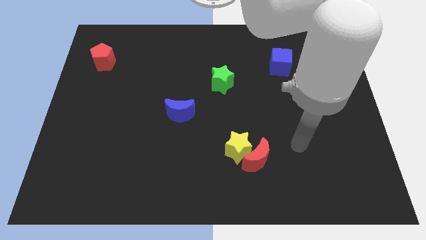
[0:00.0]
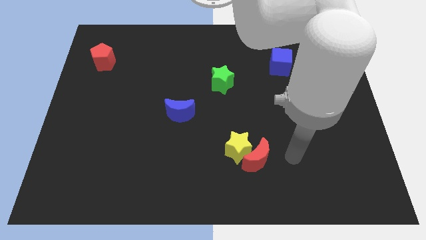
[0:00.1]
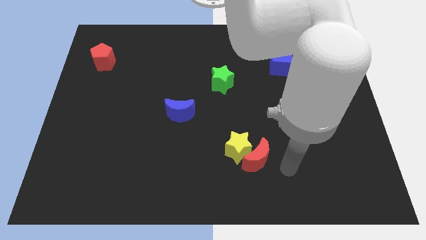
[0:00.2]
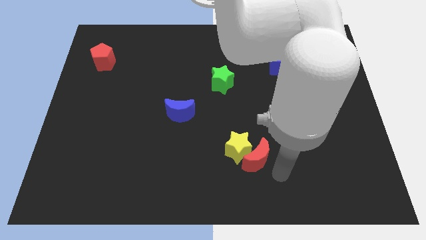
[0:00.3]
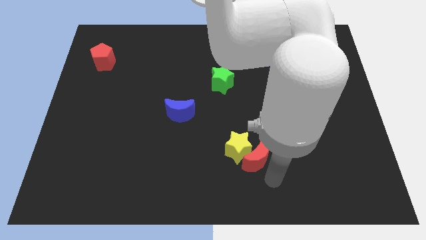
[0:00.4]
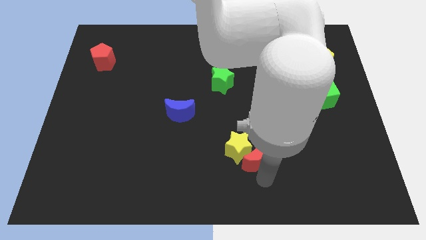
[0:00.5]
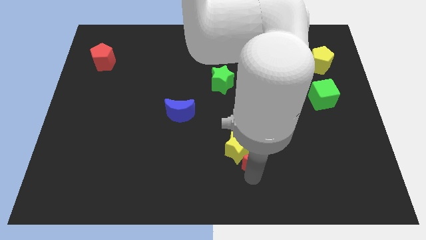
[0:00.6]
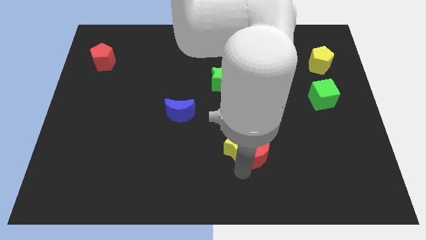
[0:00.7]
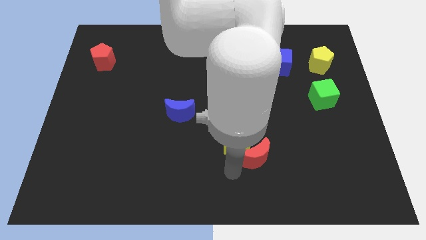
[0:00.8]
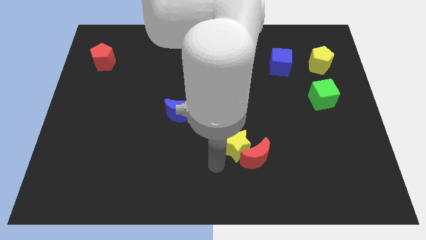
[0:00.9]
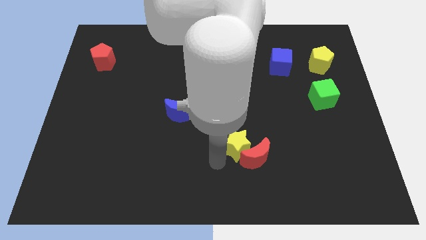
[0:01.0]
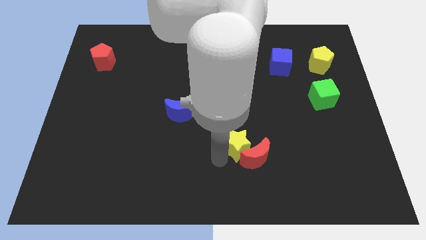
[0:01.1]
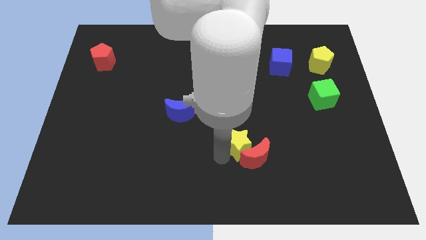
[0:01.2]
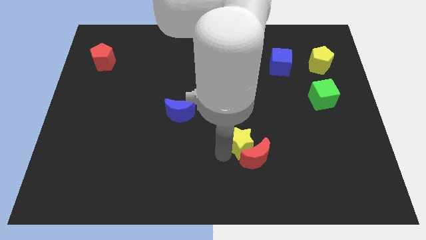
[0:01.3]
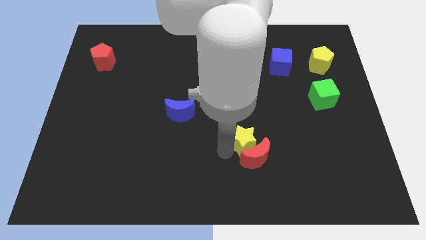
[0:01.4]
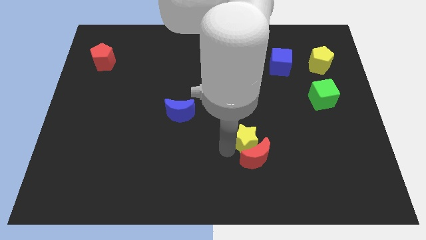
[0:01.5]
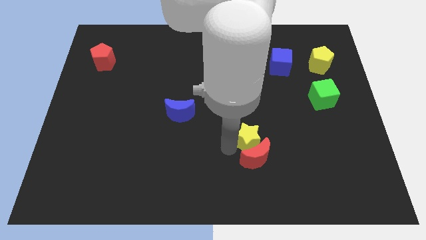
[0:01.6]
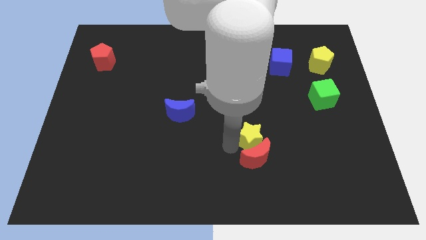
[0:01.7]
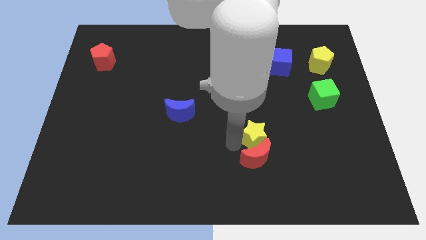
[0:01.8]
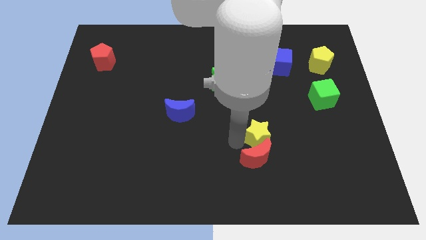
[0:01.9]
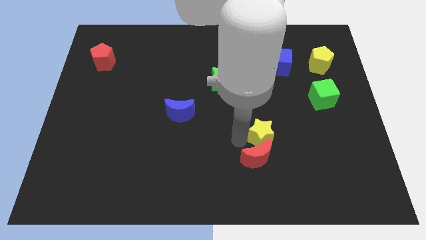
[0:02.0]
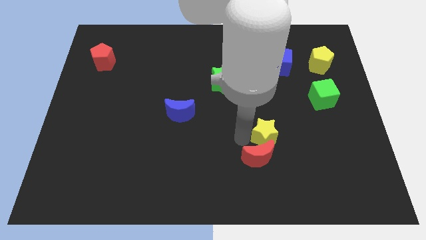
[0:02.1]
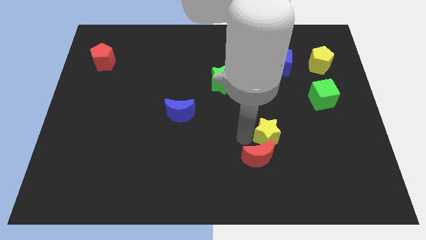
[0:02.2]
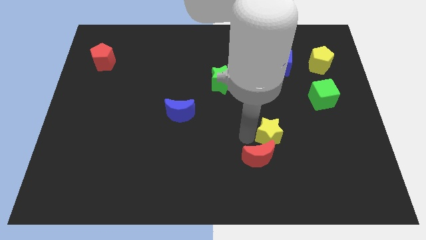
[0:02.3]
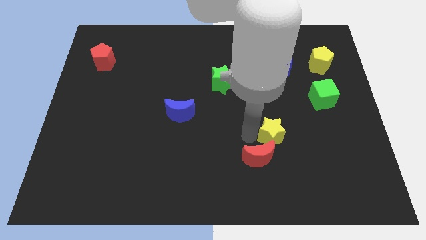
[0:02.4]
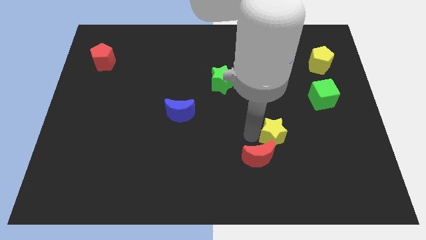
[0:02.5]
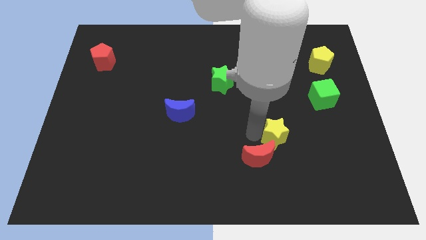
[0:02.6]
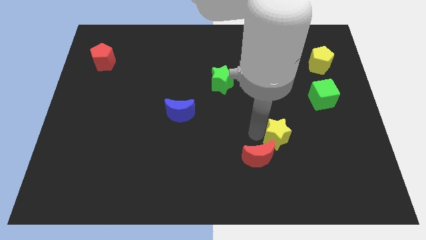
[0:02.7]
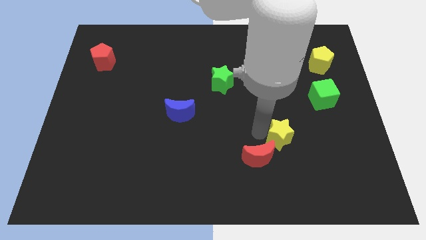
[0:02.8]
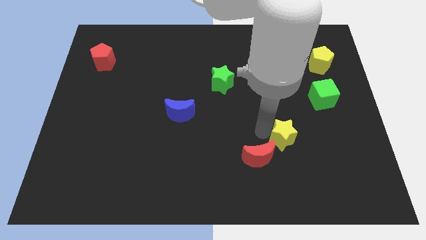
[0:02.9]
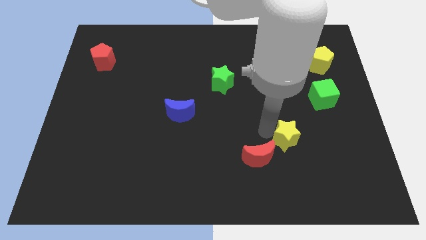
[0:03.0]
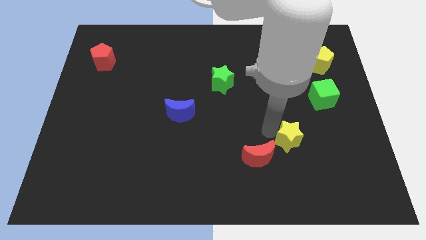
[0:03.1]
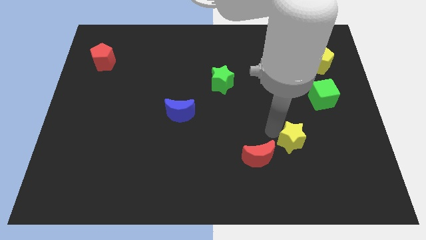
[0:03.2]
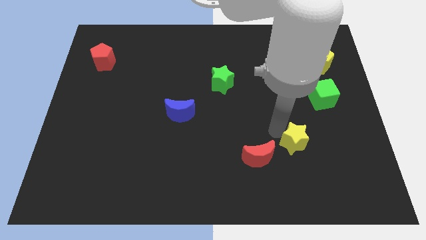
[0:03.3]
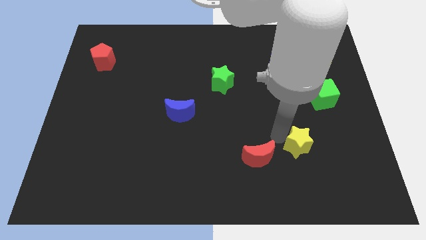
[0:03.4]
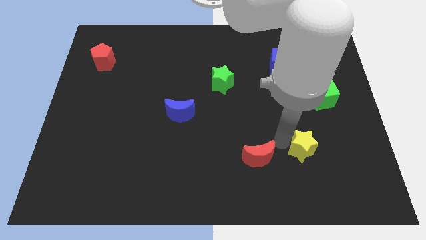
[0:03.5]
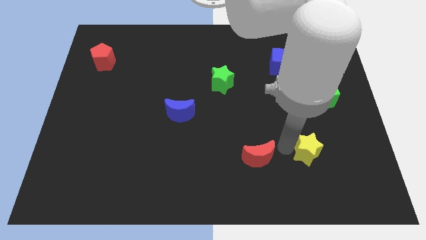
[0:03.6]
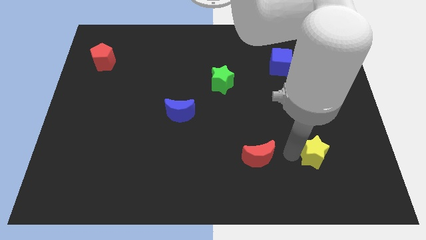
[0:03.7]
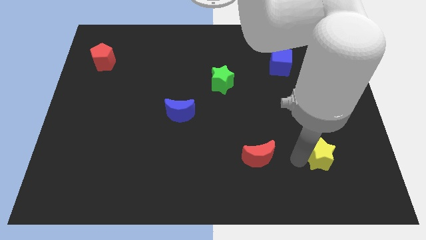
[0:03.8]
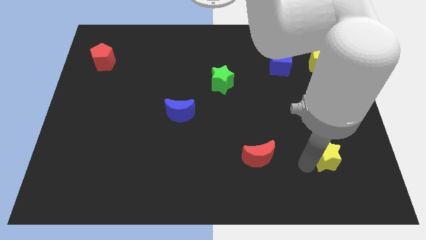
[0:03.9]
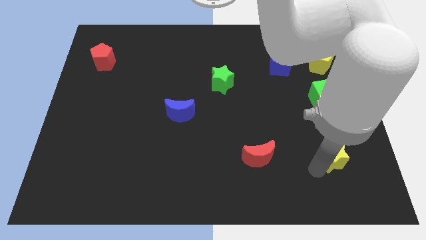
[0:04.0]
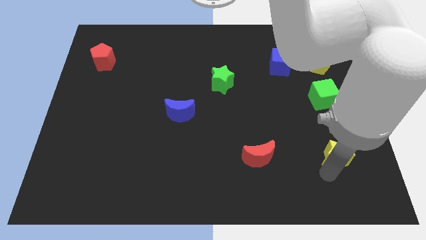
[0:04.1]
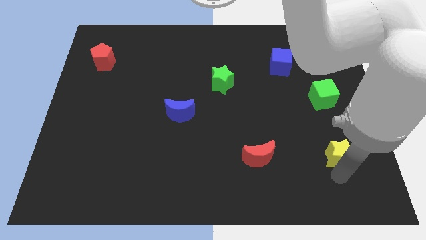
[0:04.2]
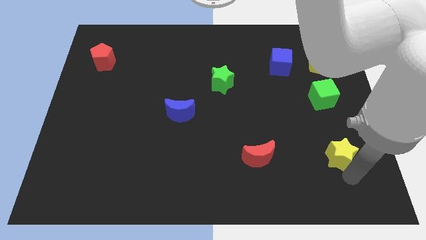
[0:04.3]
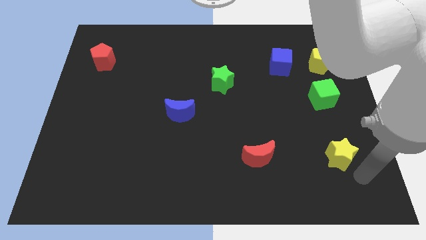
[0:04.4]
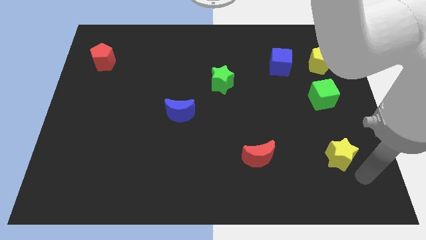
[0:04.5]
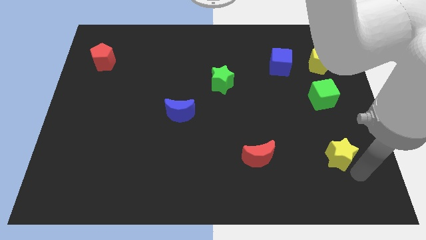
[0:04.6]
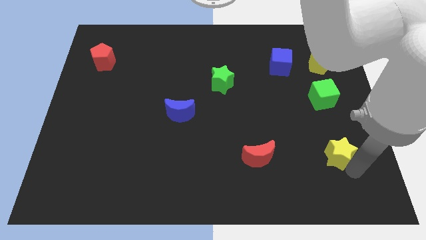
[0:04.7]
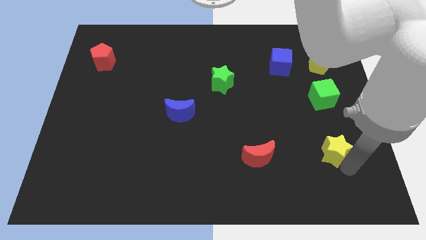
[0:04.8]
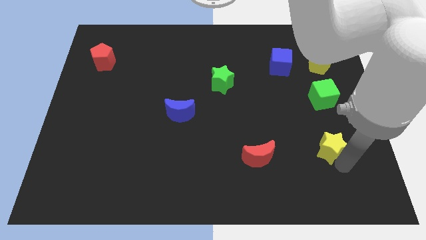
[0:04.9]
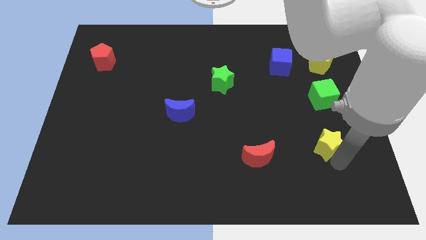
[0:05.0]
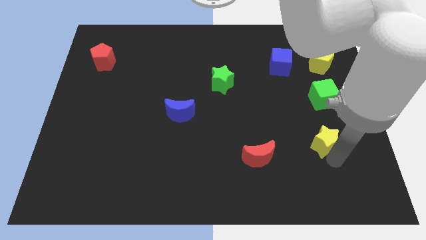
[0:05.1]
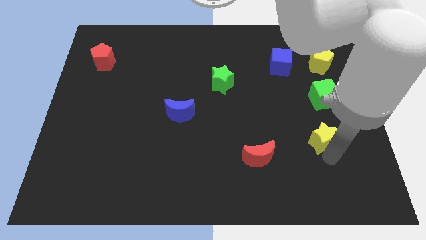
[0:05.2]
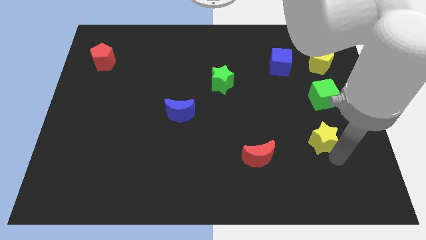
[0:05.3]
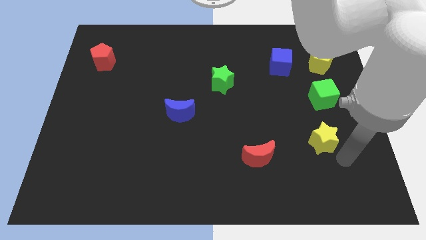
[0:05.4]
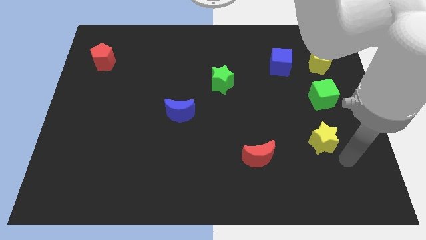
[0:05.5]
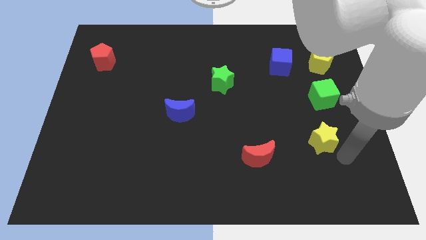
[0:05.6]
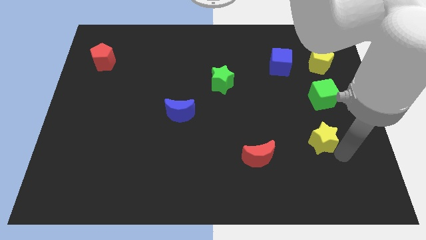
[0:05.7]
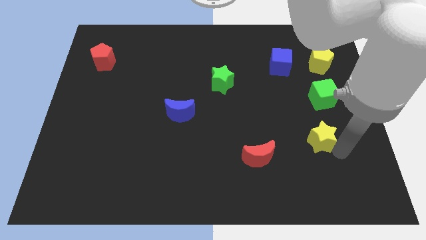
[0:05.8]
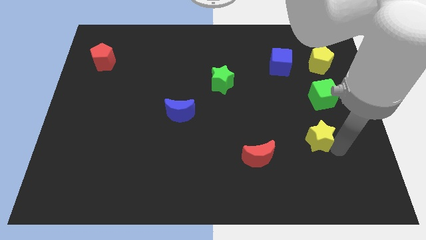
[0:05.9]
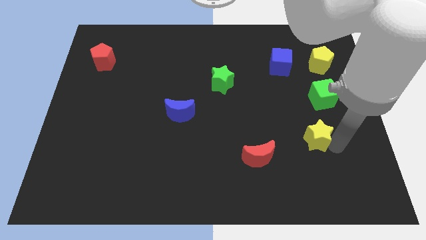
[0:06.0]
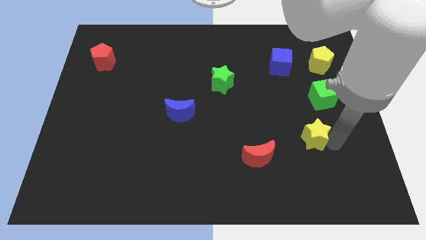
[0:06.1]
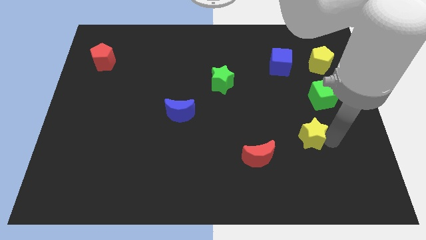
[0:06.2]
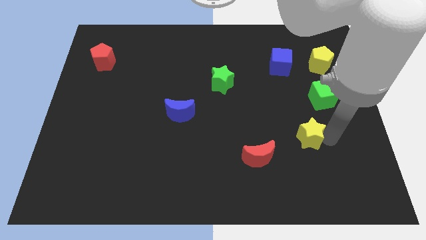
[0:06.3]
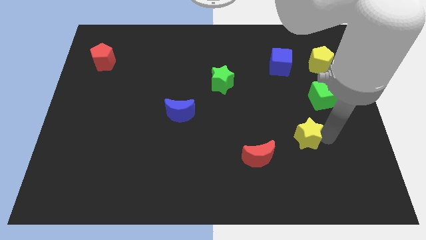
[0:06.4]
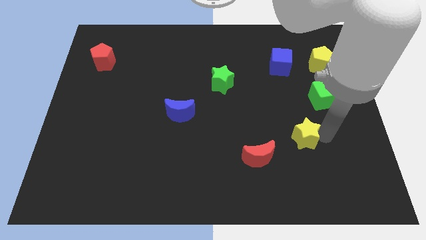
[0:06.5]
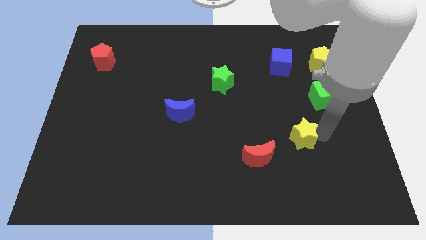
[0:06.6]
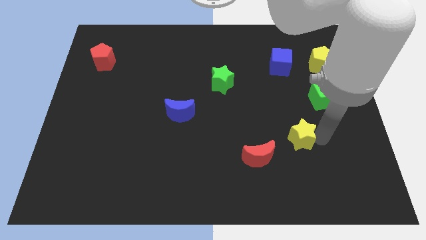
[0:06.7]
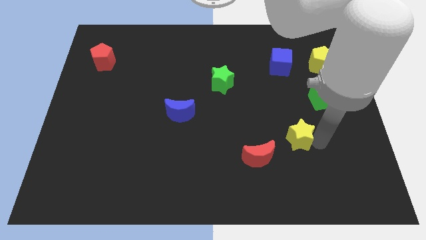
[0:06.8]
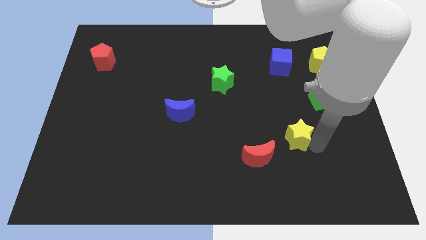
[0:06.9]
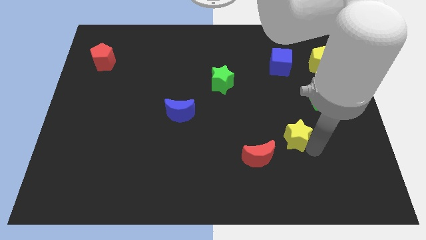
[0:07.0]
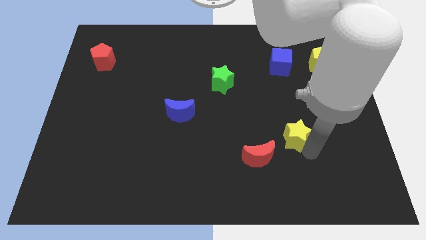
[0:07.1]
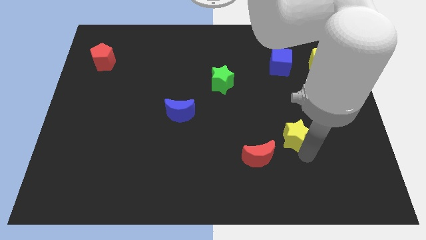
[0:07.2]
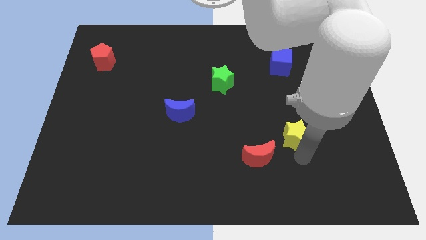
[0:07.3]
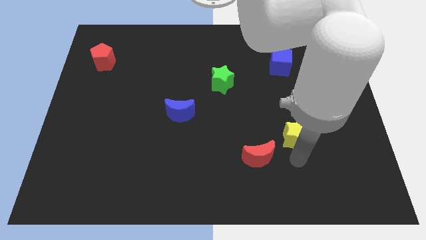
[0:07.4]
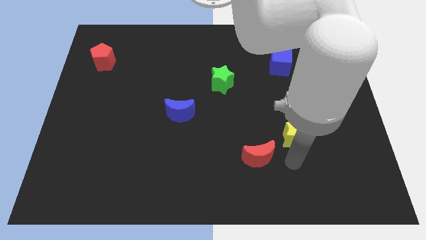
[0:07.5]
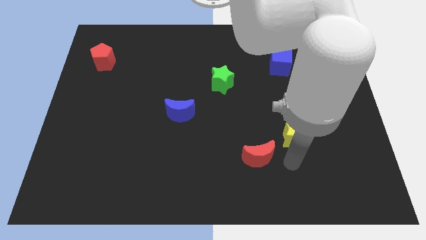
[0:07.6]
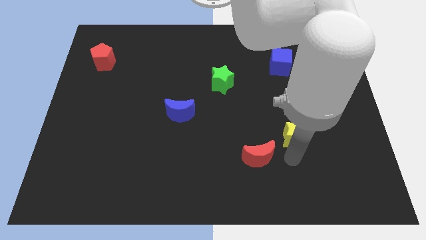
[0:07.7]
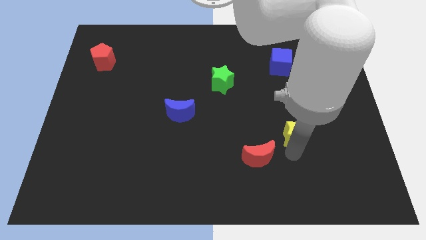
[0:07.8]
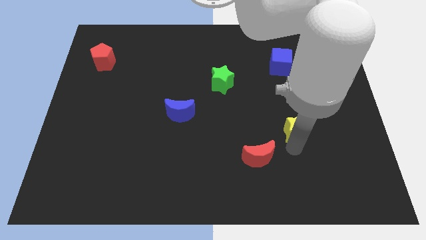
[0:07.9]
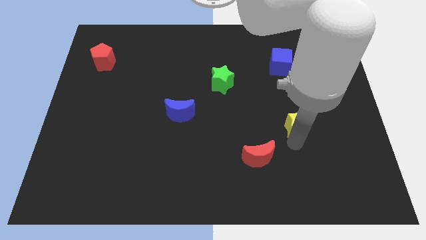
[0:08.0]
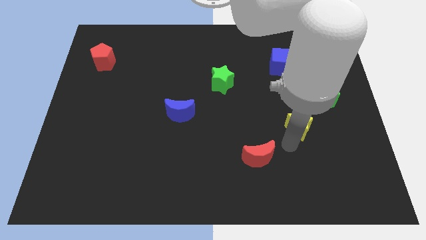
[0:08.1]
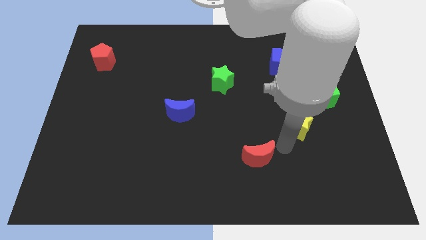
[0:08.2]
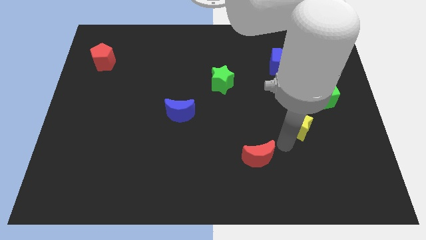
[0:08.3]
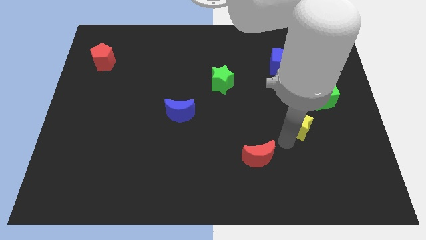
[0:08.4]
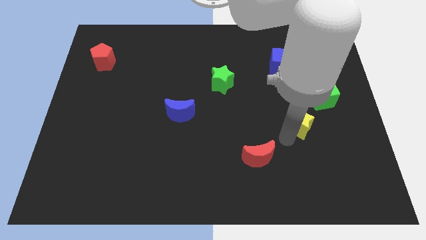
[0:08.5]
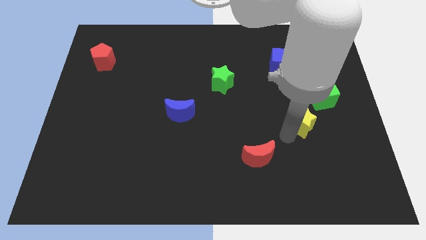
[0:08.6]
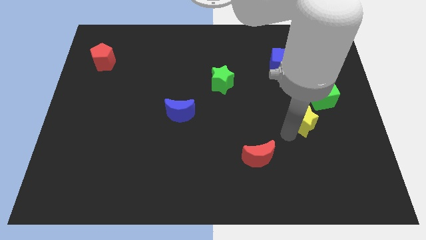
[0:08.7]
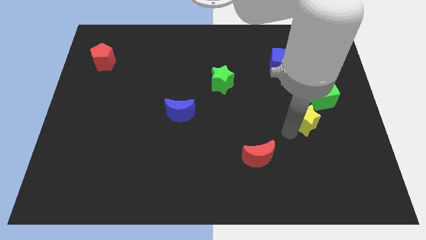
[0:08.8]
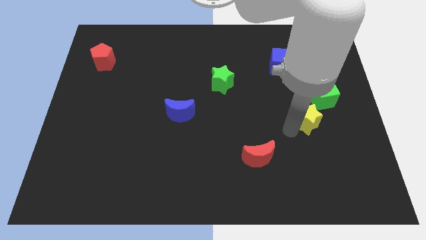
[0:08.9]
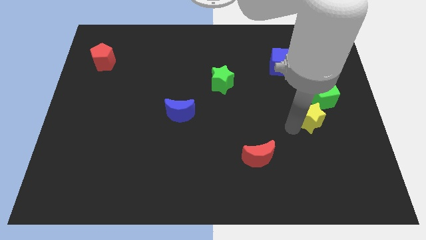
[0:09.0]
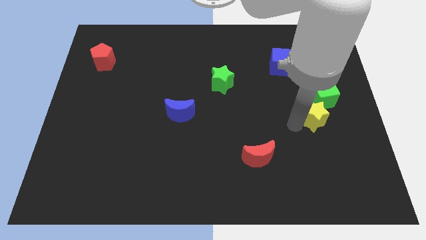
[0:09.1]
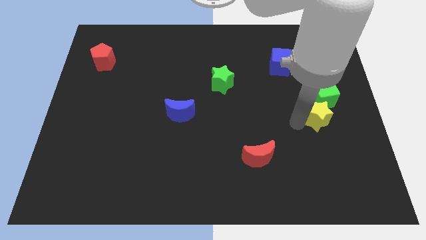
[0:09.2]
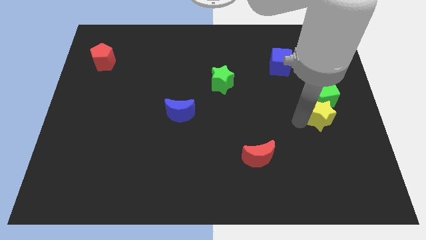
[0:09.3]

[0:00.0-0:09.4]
move the yellow star towards the green cube
